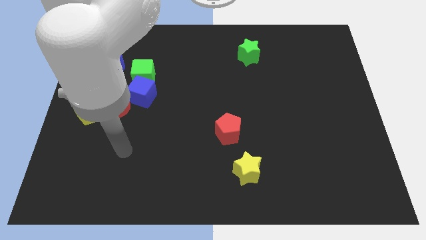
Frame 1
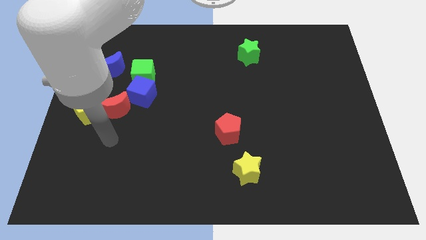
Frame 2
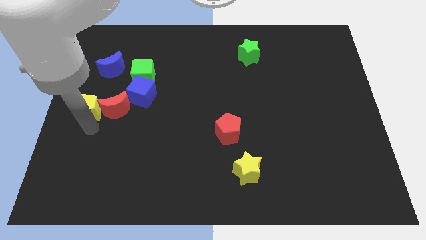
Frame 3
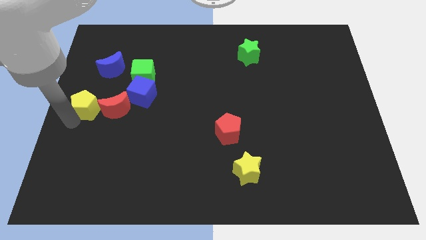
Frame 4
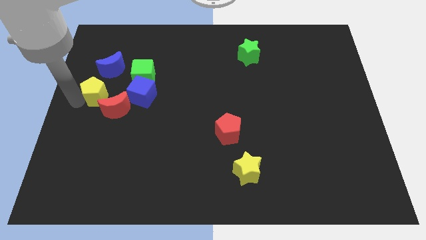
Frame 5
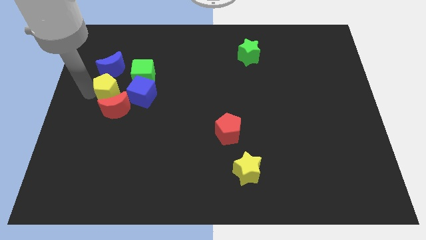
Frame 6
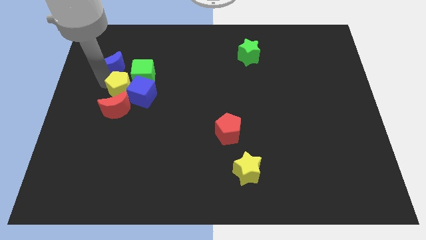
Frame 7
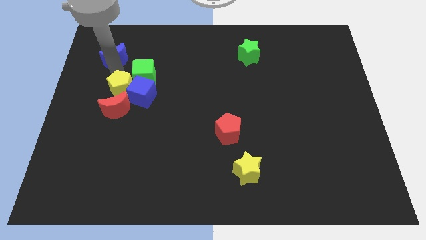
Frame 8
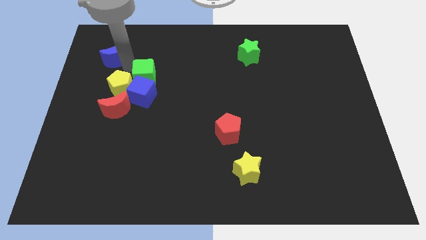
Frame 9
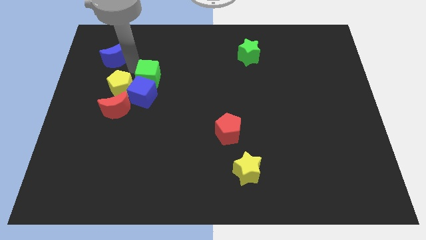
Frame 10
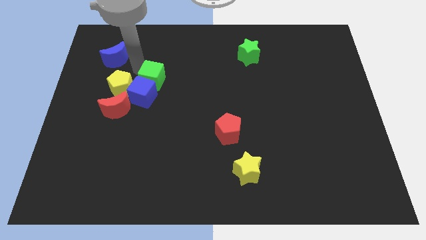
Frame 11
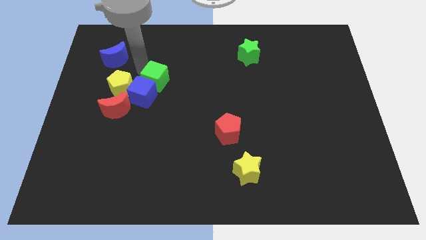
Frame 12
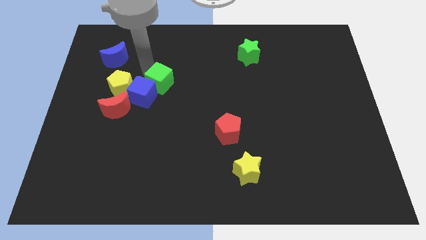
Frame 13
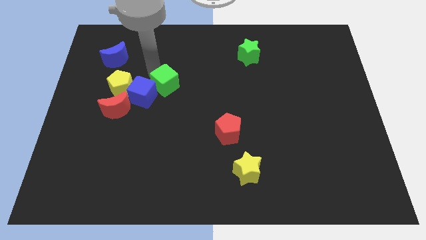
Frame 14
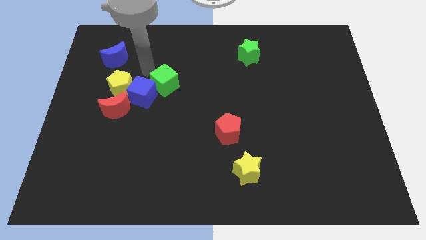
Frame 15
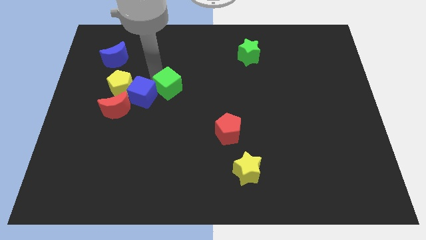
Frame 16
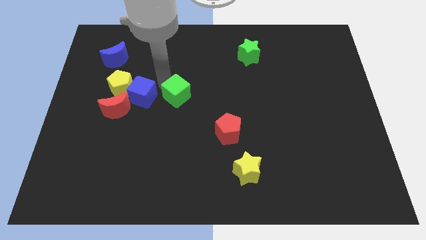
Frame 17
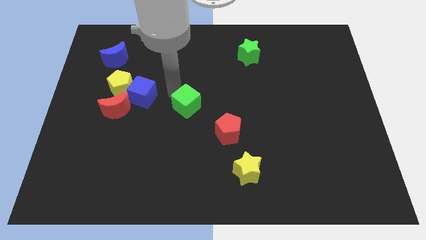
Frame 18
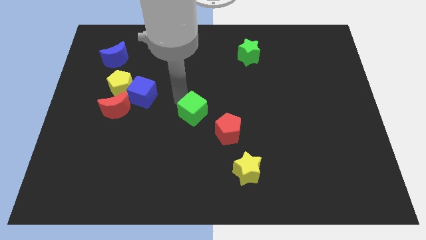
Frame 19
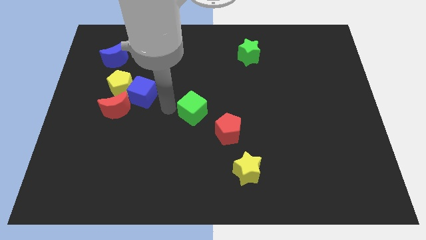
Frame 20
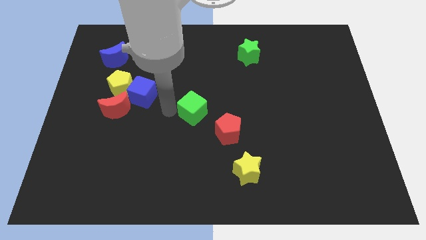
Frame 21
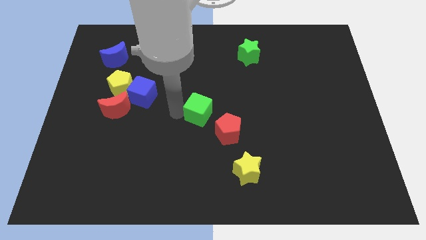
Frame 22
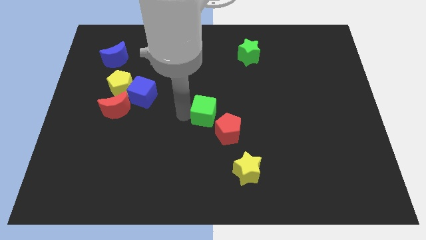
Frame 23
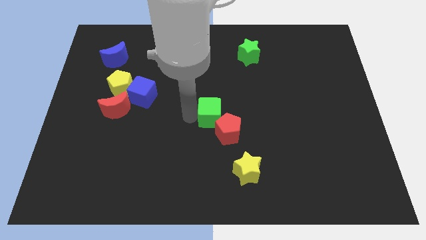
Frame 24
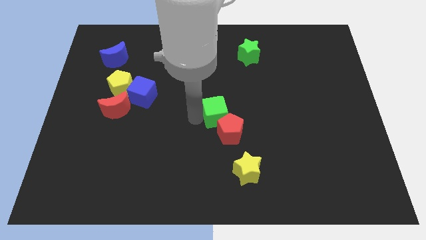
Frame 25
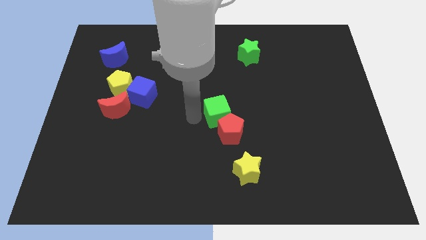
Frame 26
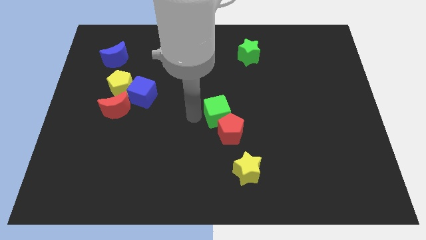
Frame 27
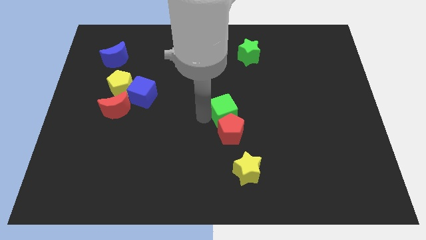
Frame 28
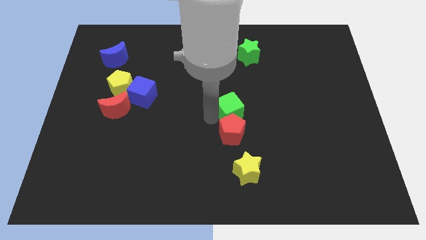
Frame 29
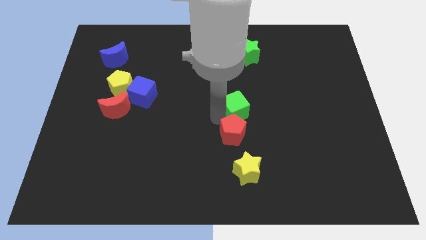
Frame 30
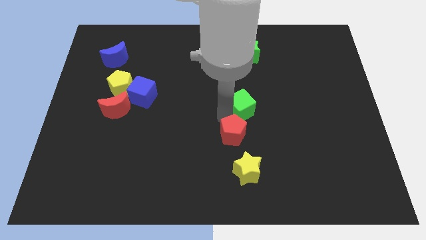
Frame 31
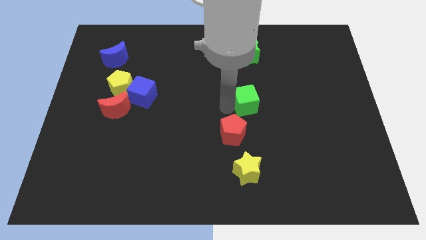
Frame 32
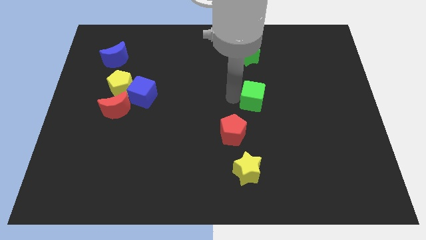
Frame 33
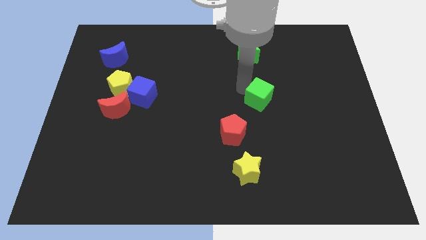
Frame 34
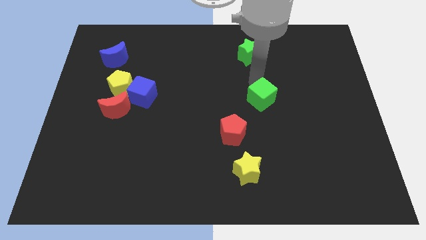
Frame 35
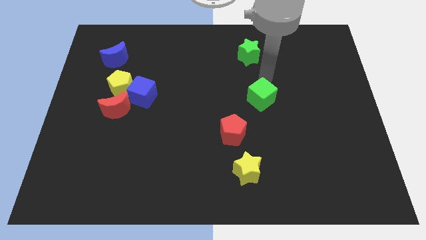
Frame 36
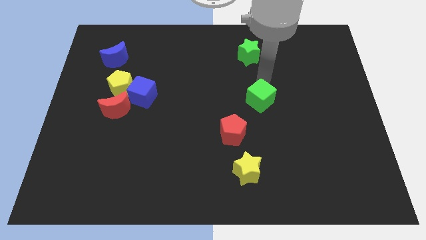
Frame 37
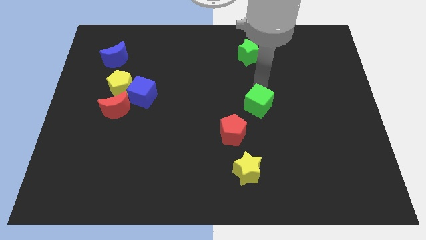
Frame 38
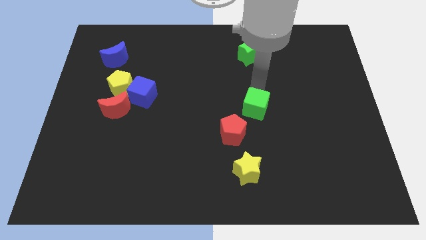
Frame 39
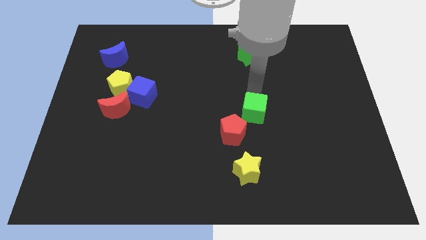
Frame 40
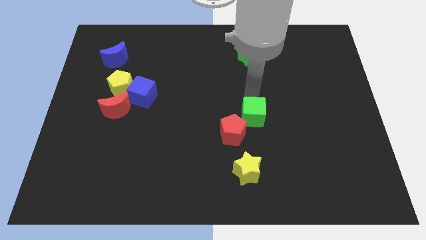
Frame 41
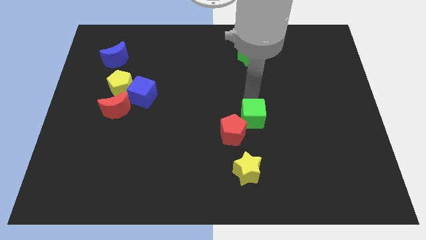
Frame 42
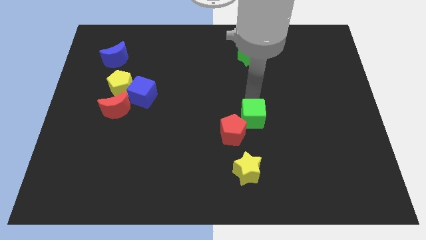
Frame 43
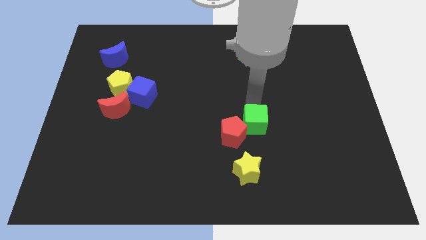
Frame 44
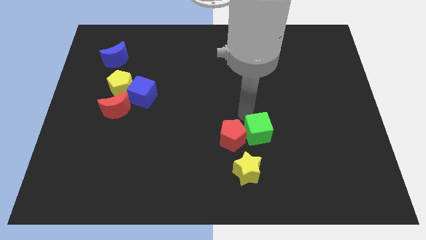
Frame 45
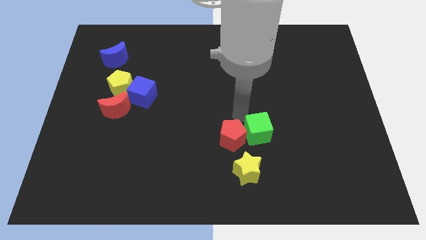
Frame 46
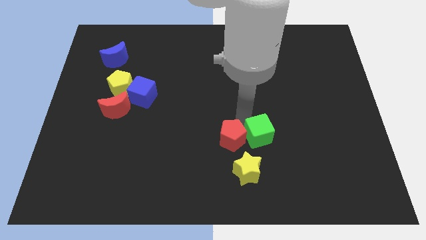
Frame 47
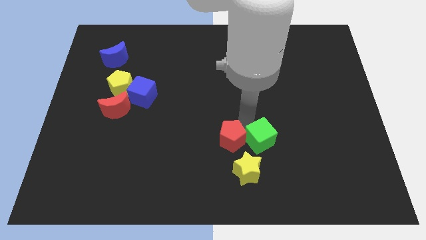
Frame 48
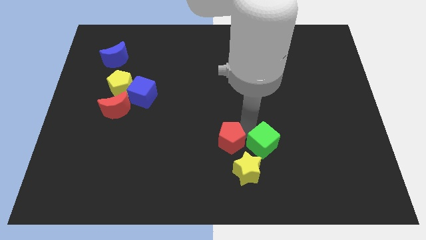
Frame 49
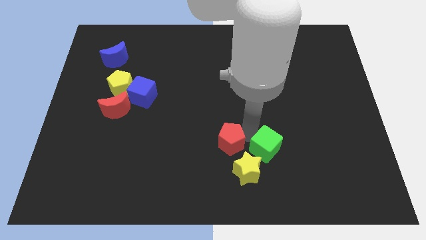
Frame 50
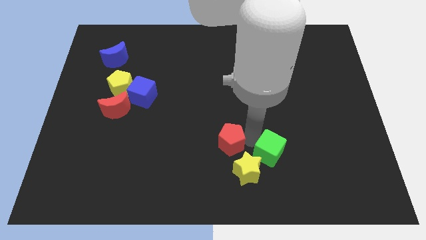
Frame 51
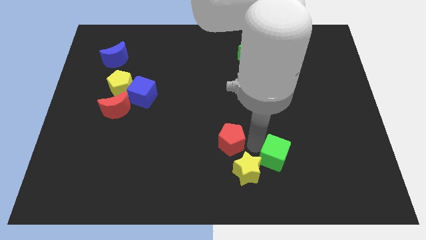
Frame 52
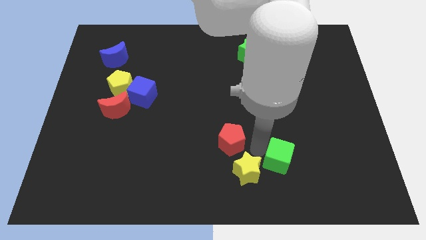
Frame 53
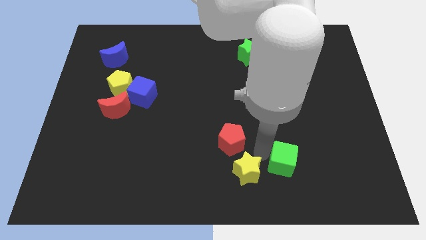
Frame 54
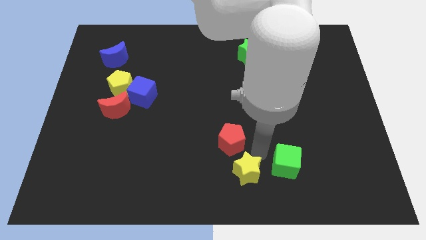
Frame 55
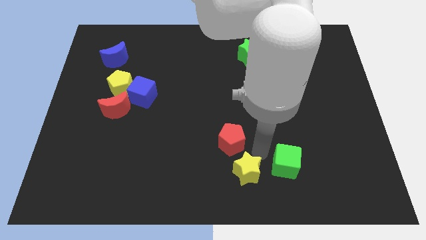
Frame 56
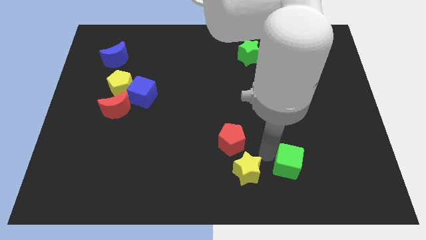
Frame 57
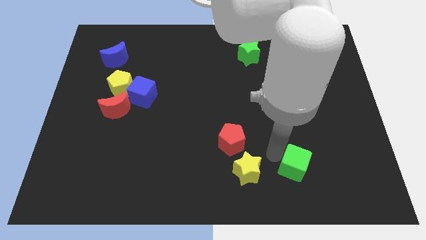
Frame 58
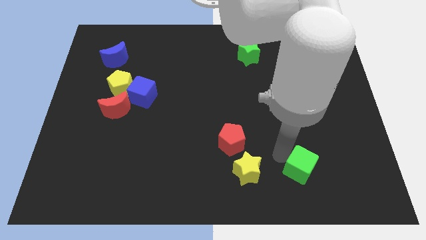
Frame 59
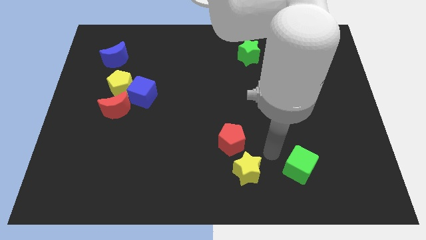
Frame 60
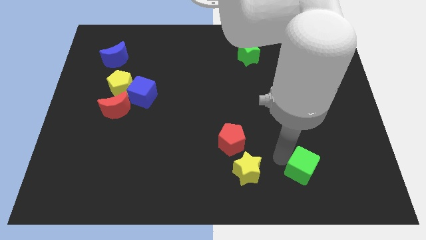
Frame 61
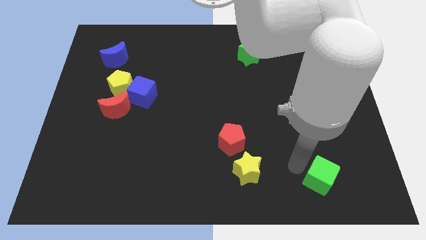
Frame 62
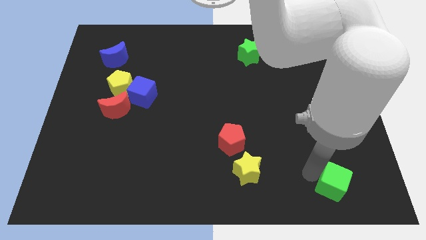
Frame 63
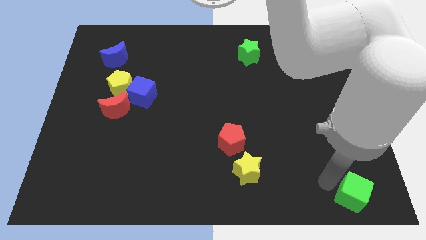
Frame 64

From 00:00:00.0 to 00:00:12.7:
slide the green cube to the bottom right

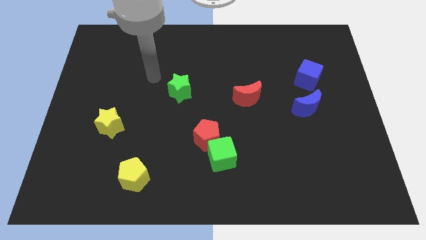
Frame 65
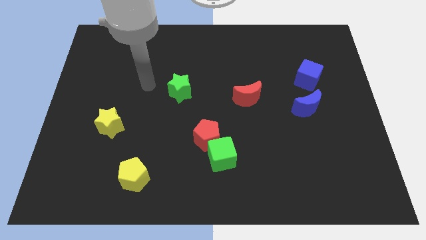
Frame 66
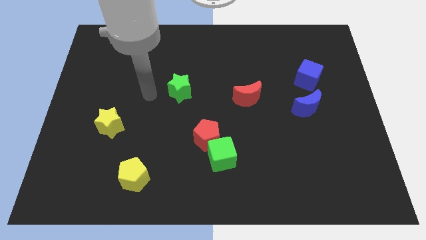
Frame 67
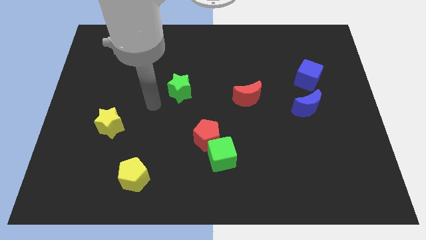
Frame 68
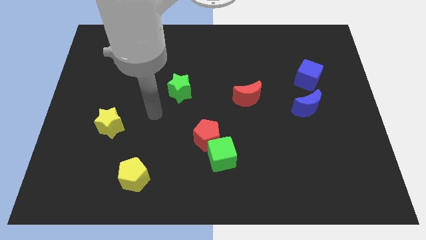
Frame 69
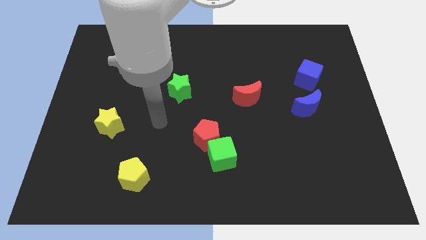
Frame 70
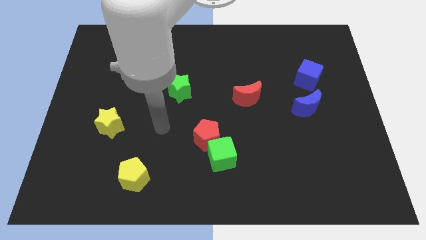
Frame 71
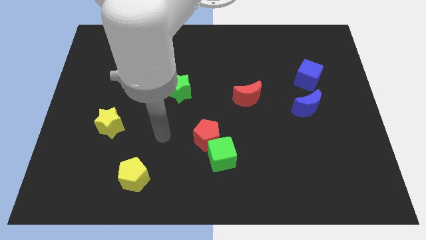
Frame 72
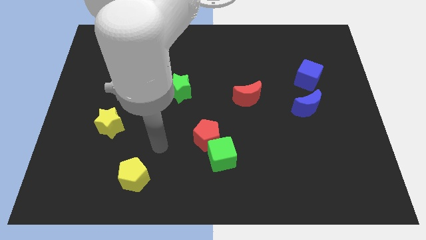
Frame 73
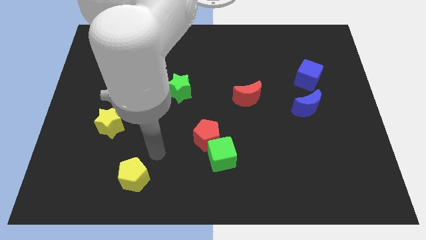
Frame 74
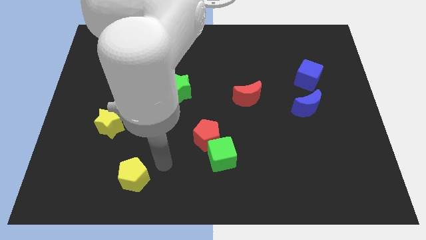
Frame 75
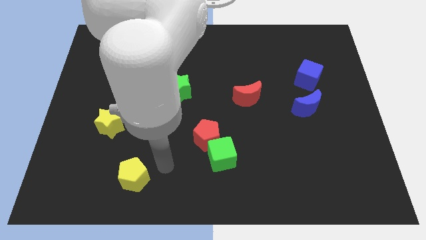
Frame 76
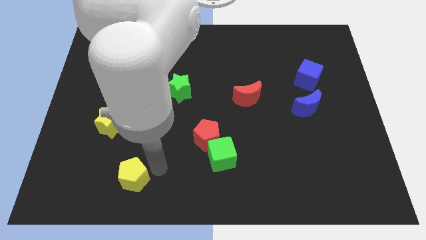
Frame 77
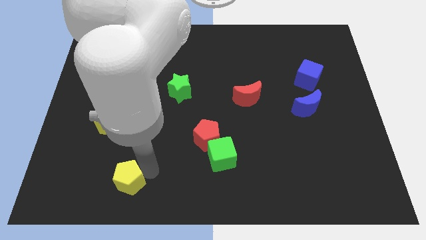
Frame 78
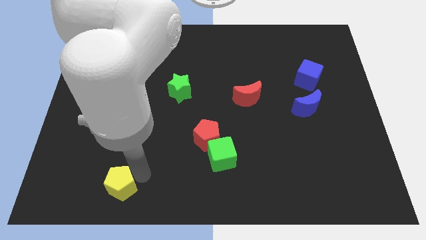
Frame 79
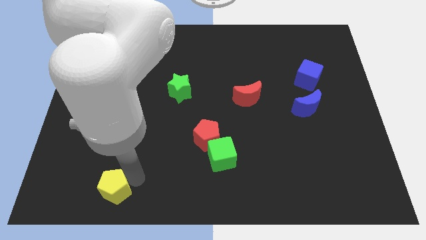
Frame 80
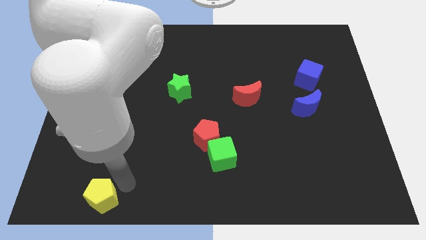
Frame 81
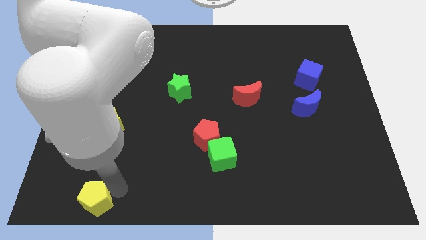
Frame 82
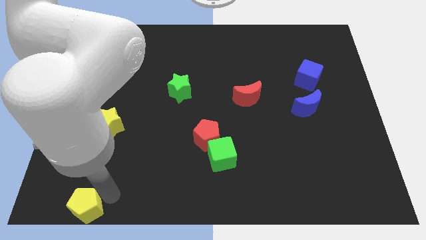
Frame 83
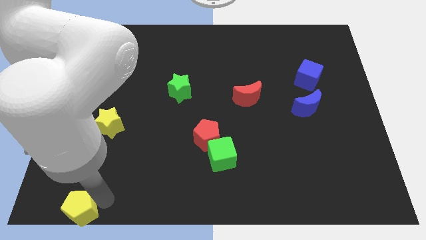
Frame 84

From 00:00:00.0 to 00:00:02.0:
move the yellow pentagon to the bottom left
